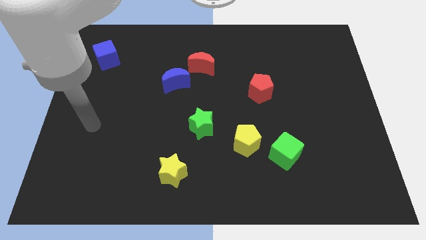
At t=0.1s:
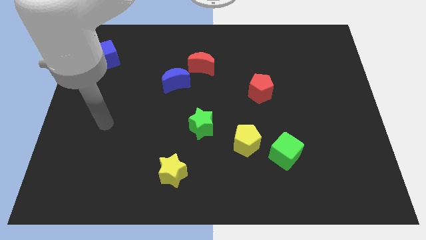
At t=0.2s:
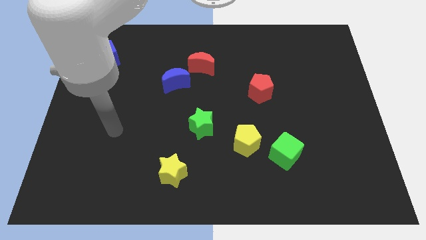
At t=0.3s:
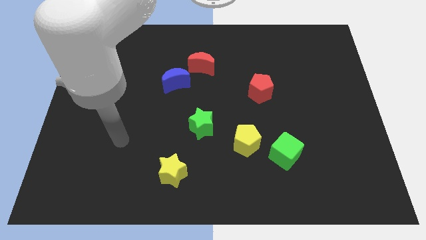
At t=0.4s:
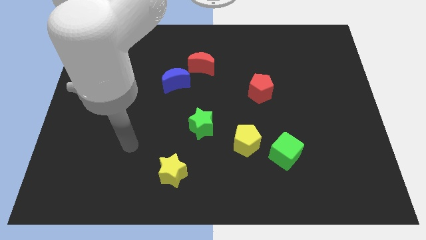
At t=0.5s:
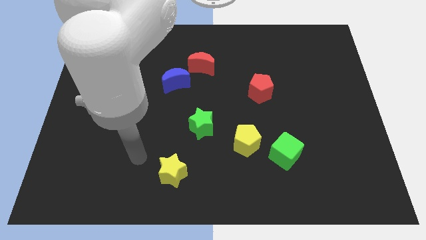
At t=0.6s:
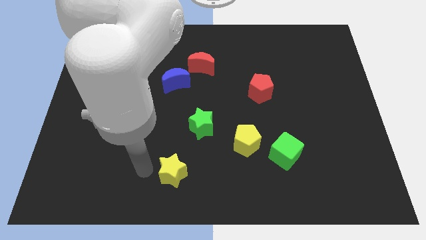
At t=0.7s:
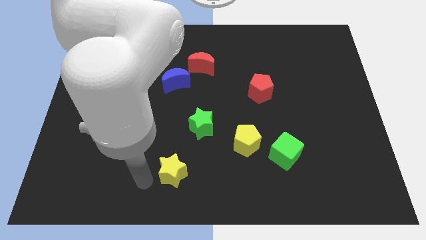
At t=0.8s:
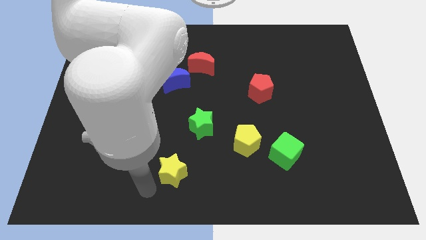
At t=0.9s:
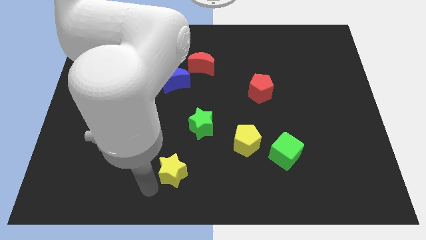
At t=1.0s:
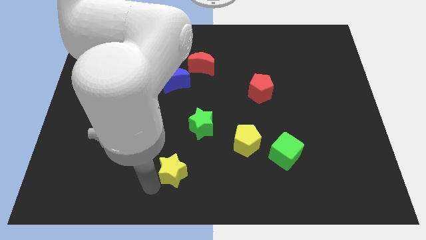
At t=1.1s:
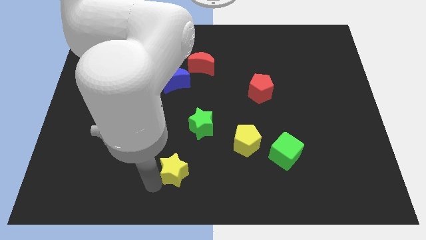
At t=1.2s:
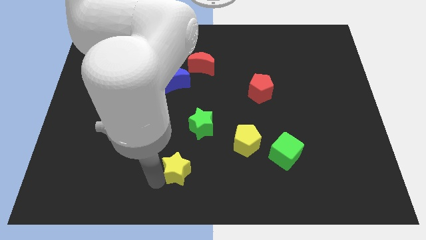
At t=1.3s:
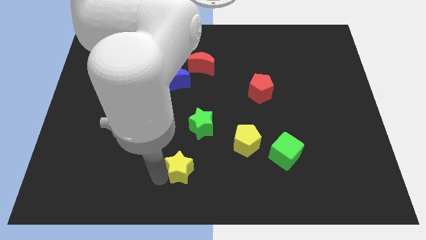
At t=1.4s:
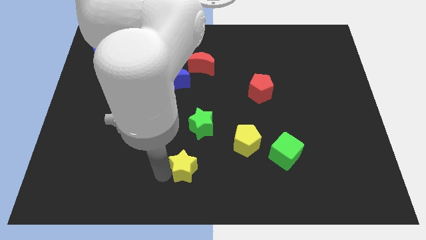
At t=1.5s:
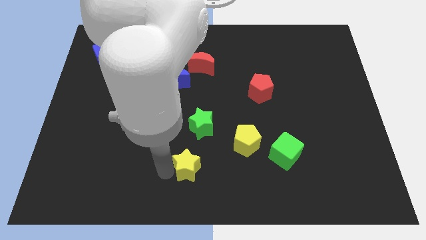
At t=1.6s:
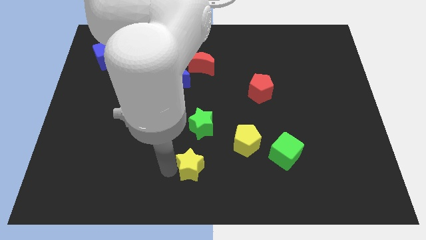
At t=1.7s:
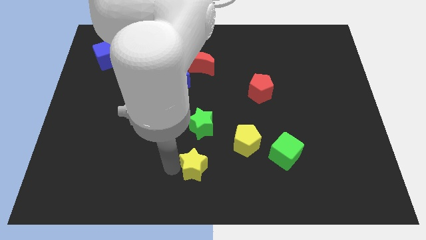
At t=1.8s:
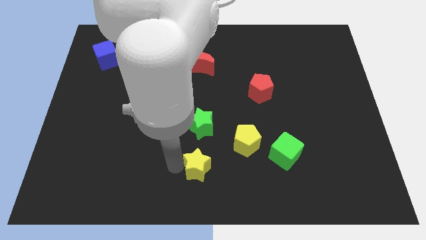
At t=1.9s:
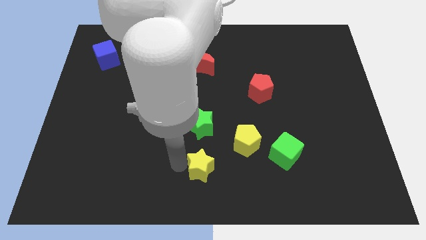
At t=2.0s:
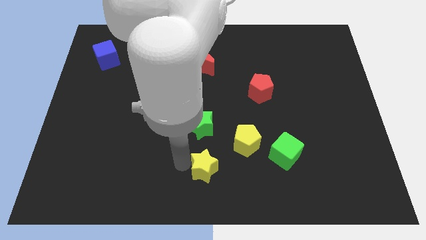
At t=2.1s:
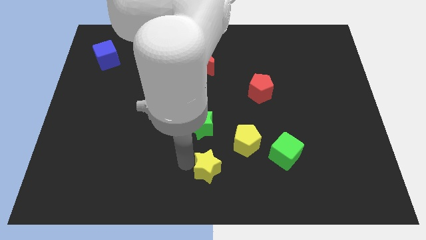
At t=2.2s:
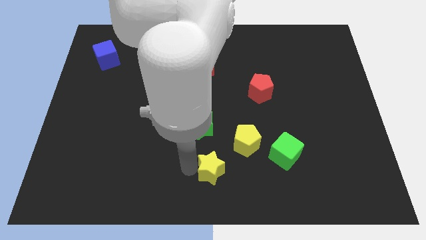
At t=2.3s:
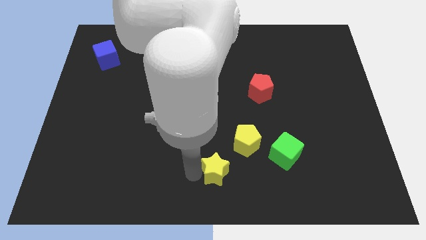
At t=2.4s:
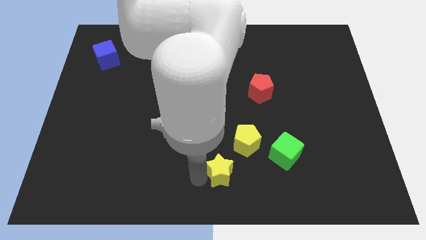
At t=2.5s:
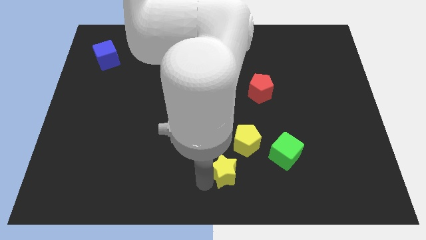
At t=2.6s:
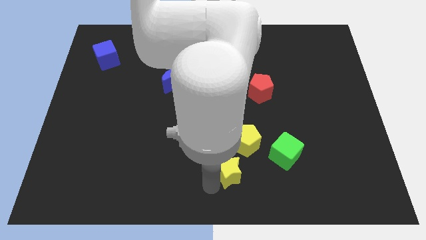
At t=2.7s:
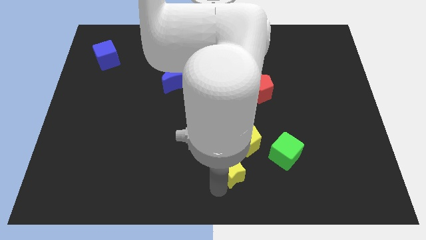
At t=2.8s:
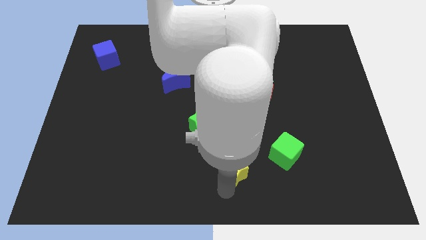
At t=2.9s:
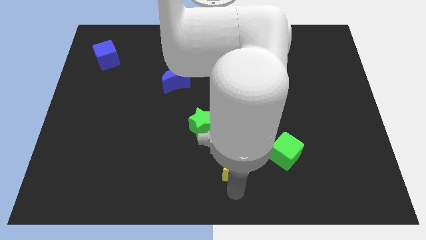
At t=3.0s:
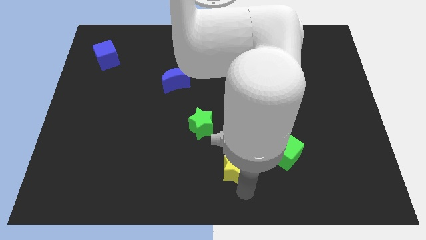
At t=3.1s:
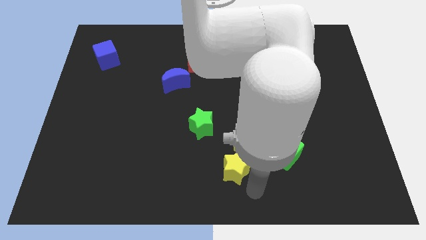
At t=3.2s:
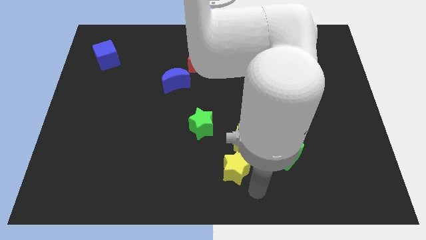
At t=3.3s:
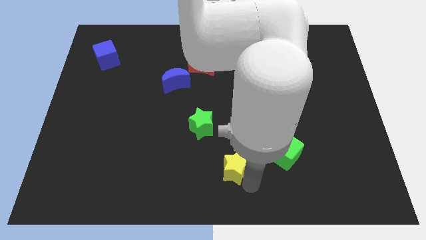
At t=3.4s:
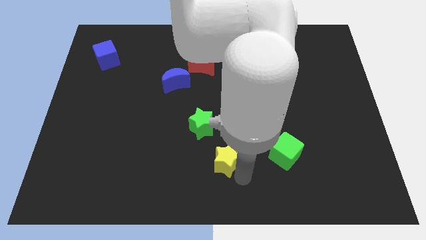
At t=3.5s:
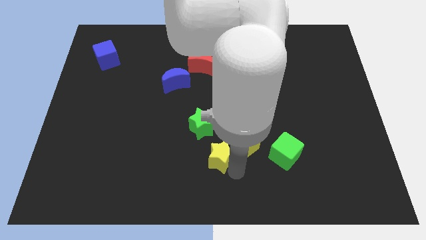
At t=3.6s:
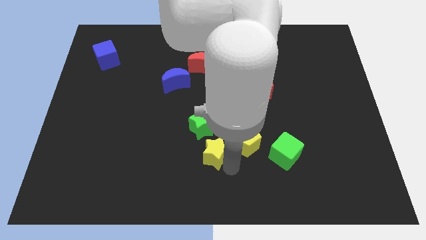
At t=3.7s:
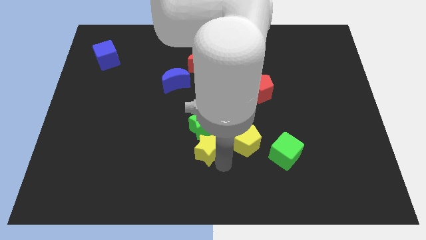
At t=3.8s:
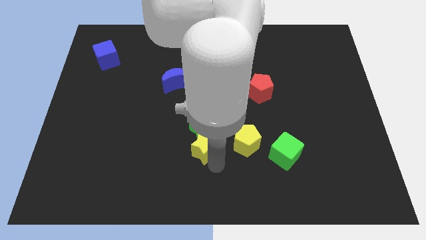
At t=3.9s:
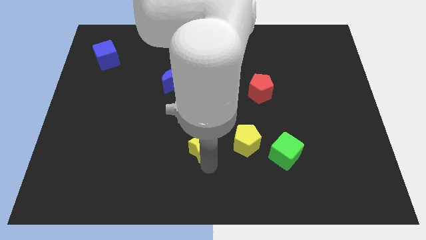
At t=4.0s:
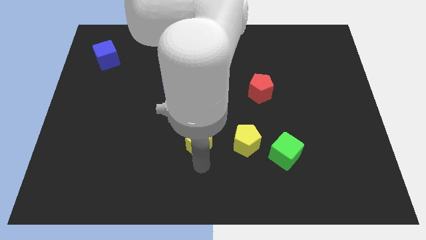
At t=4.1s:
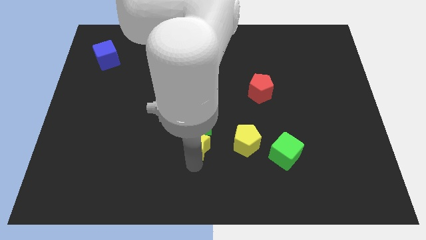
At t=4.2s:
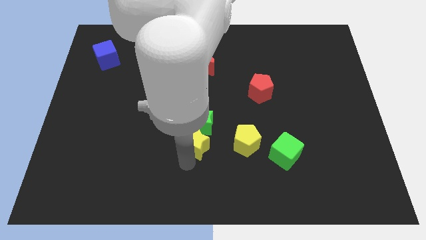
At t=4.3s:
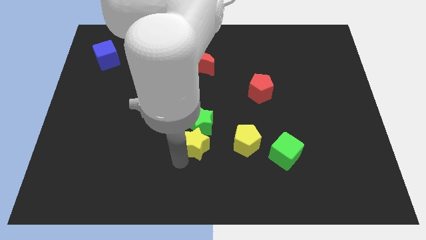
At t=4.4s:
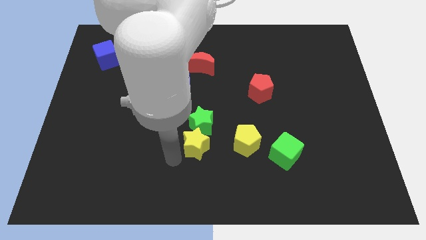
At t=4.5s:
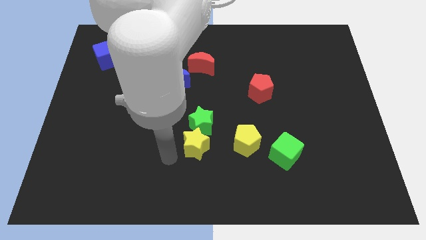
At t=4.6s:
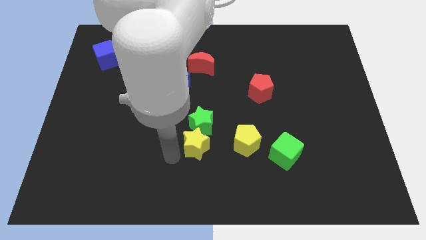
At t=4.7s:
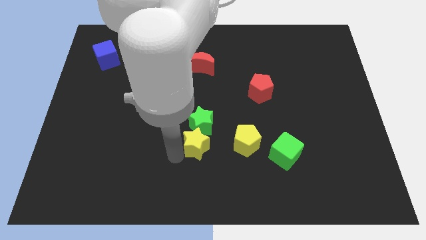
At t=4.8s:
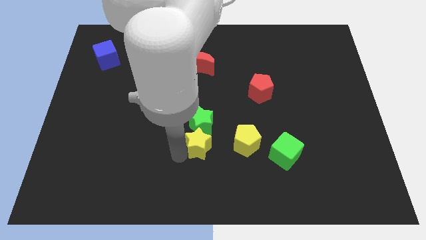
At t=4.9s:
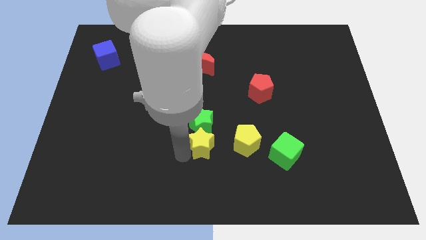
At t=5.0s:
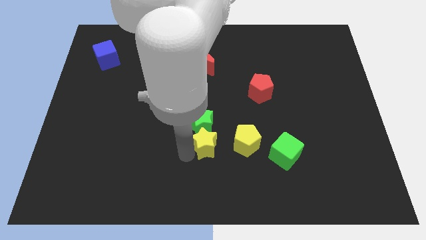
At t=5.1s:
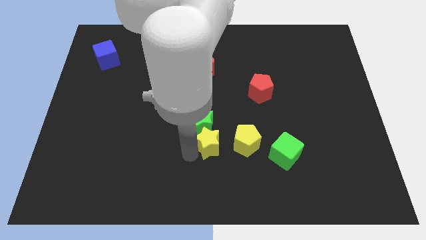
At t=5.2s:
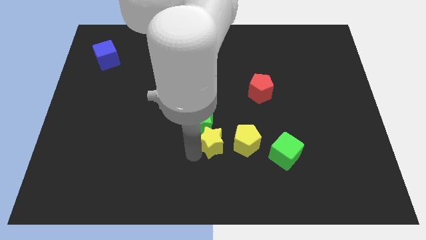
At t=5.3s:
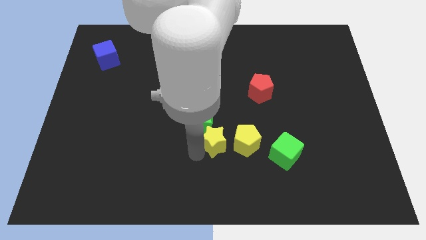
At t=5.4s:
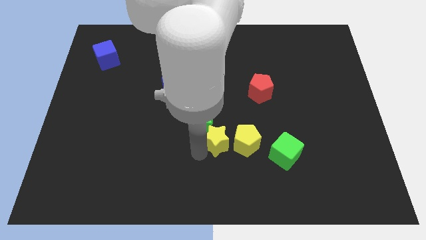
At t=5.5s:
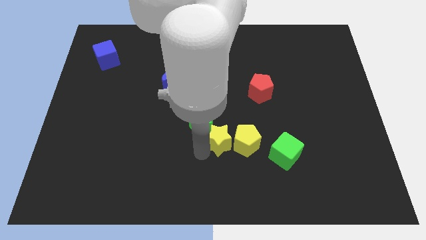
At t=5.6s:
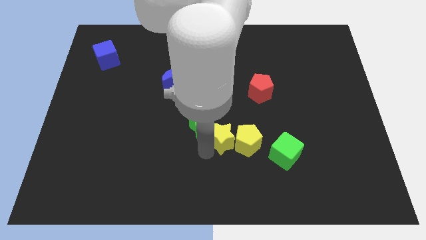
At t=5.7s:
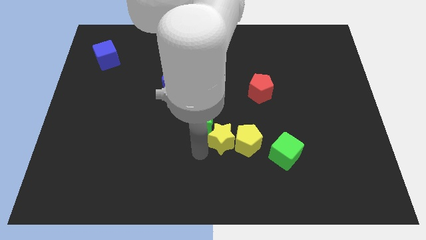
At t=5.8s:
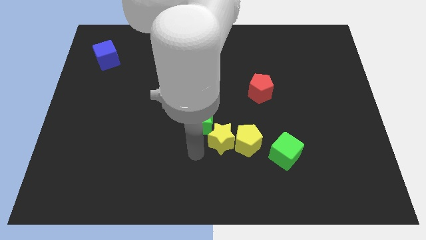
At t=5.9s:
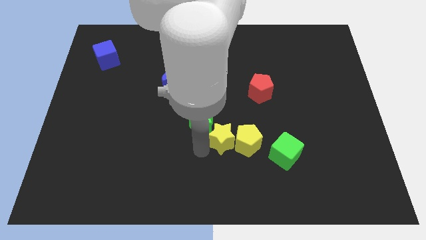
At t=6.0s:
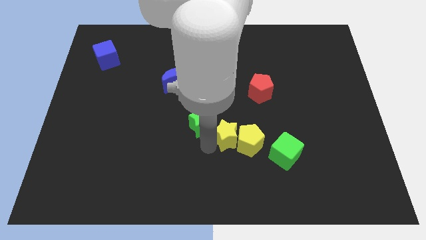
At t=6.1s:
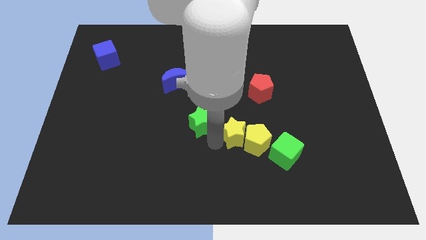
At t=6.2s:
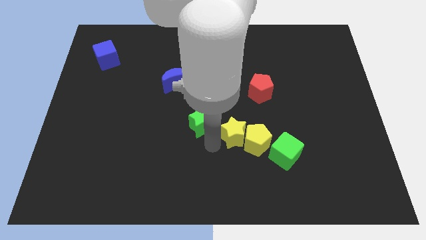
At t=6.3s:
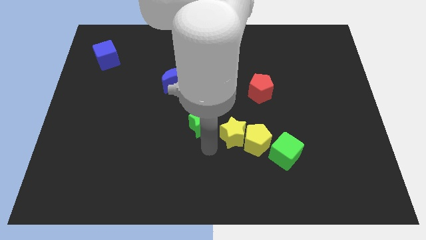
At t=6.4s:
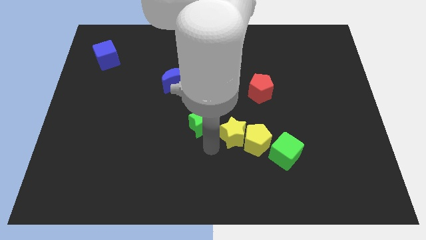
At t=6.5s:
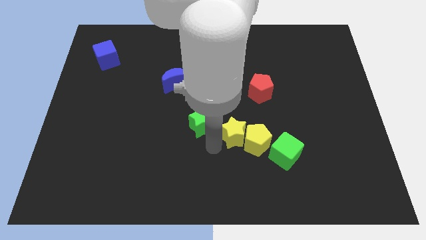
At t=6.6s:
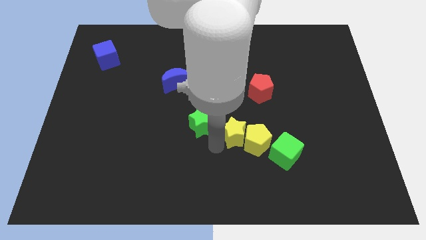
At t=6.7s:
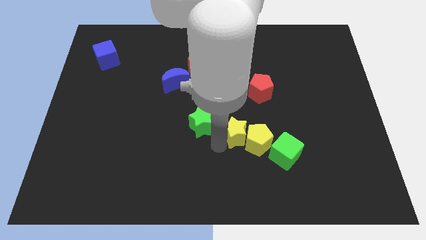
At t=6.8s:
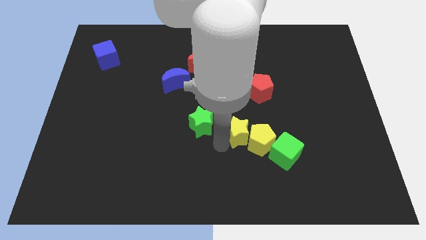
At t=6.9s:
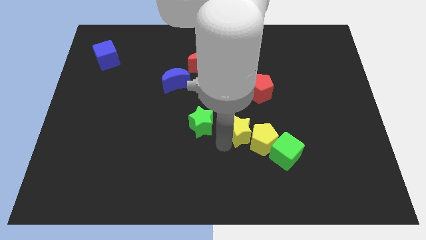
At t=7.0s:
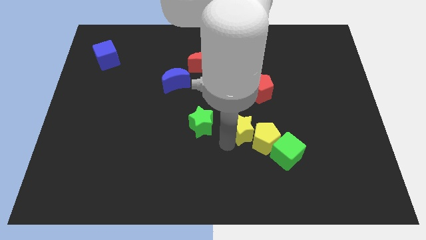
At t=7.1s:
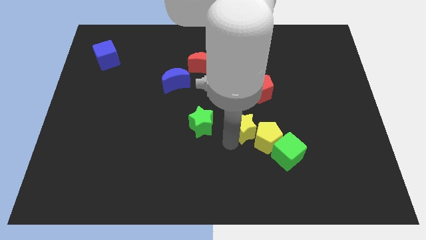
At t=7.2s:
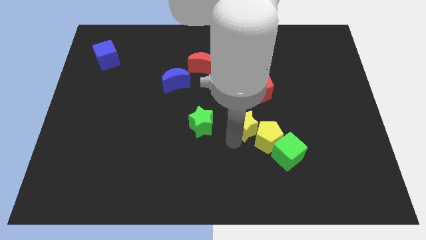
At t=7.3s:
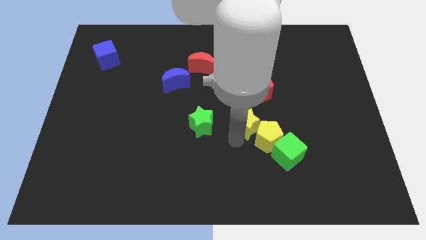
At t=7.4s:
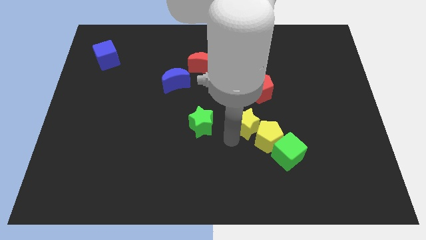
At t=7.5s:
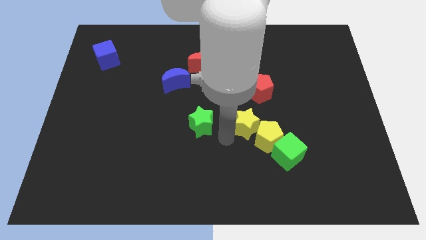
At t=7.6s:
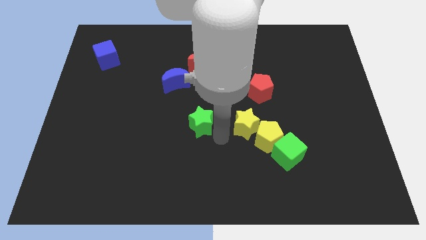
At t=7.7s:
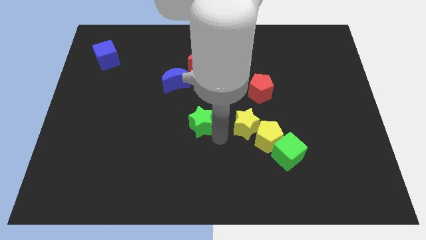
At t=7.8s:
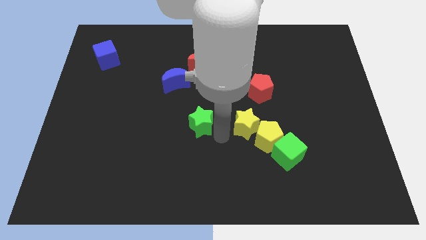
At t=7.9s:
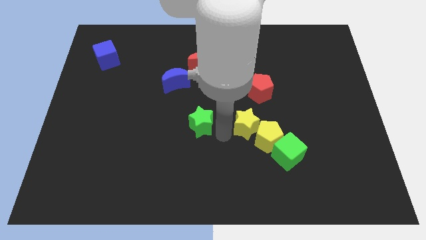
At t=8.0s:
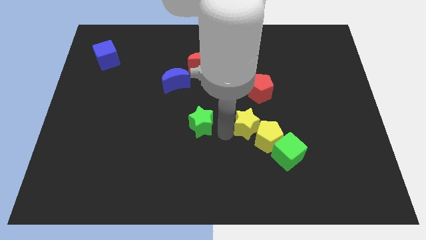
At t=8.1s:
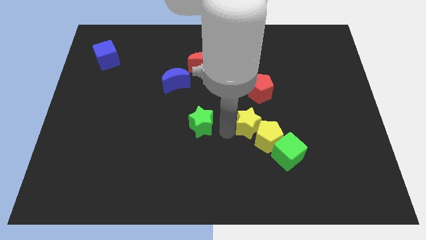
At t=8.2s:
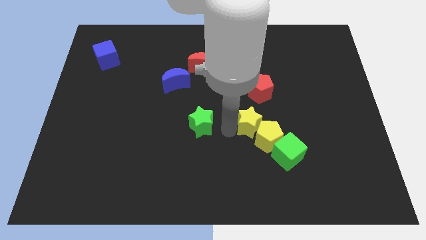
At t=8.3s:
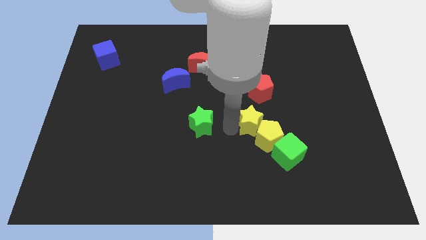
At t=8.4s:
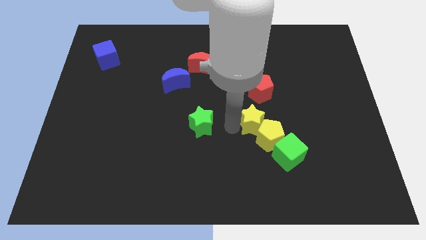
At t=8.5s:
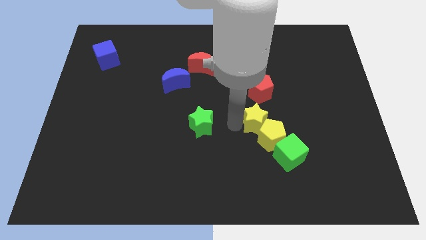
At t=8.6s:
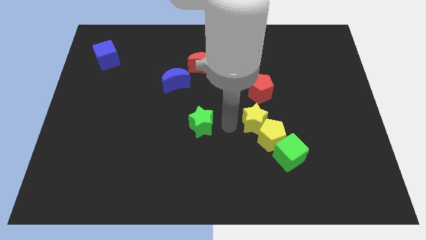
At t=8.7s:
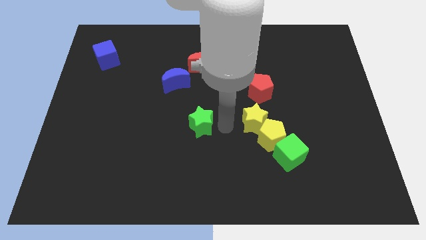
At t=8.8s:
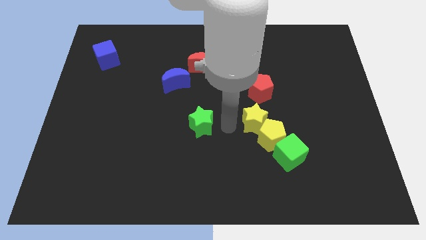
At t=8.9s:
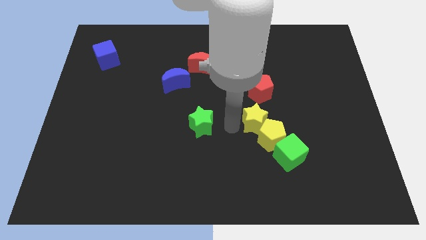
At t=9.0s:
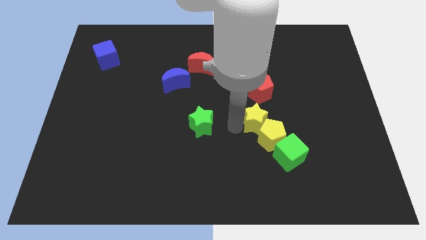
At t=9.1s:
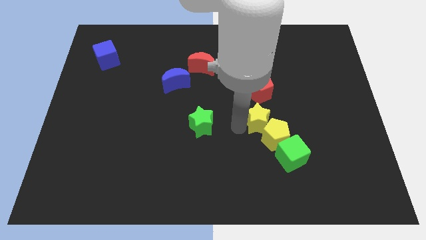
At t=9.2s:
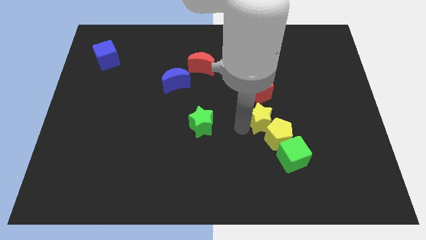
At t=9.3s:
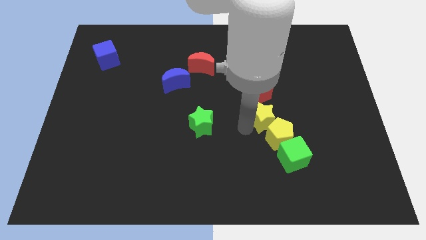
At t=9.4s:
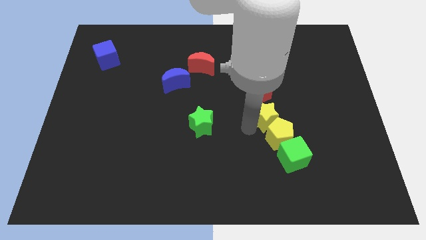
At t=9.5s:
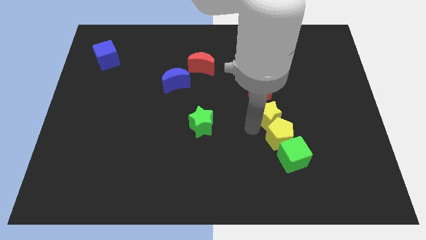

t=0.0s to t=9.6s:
push the yellow star above the green cube
